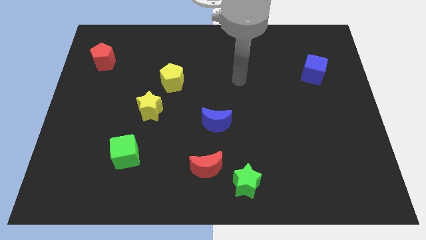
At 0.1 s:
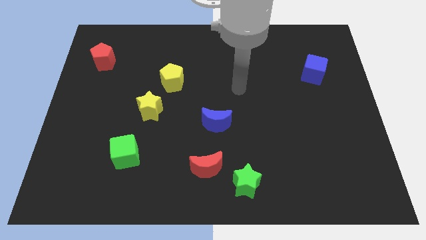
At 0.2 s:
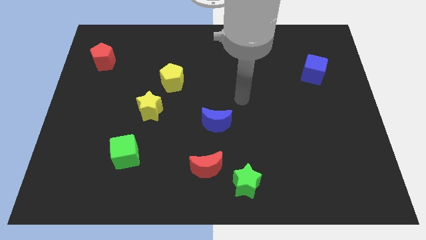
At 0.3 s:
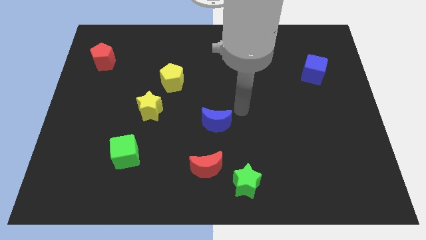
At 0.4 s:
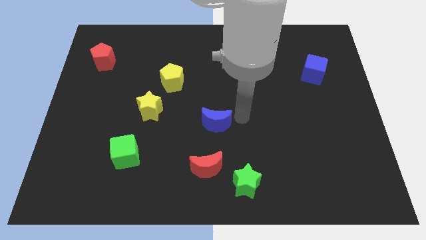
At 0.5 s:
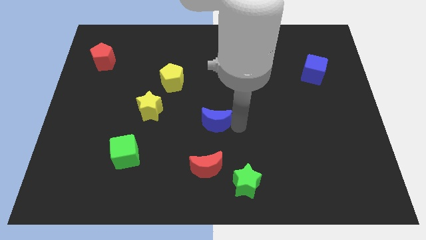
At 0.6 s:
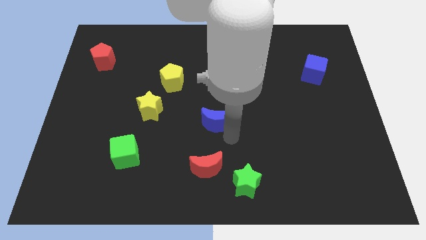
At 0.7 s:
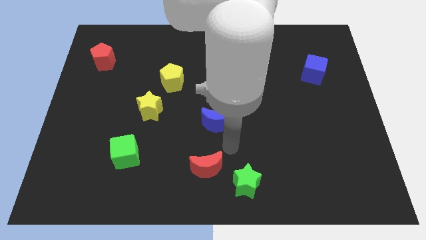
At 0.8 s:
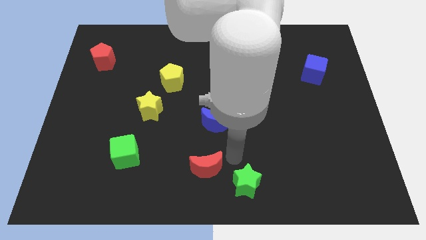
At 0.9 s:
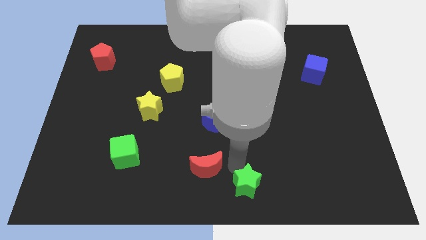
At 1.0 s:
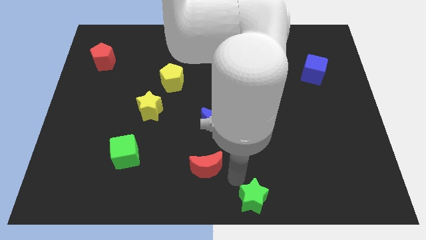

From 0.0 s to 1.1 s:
separate the red moon from the green star

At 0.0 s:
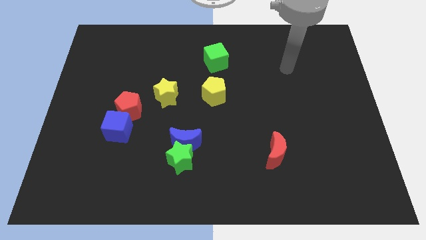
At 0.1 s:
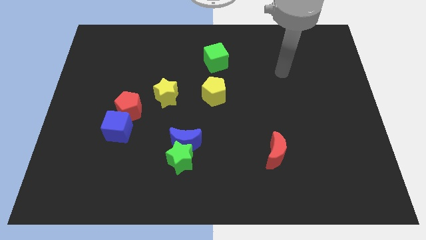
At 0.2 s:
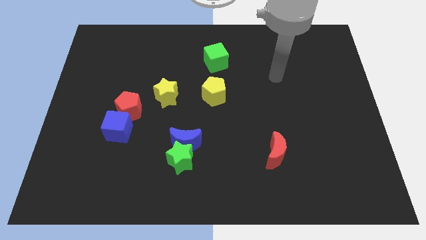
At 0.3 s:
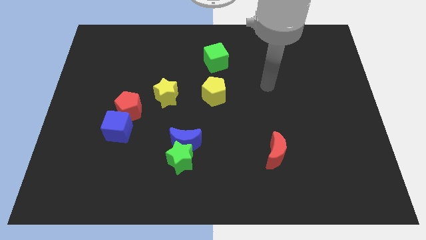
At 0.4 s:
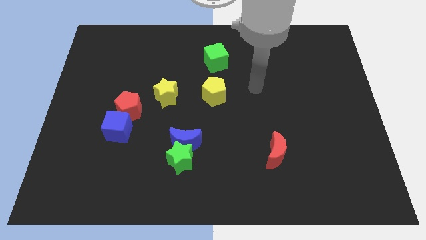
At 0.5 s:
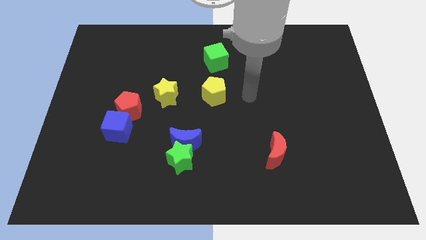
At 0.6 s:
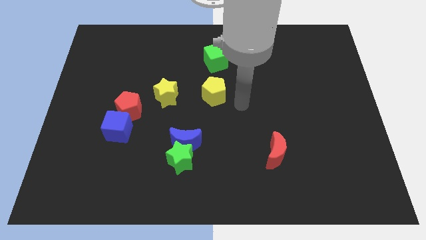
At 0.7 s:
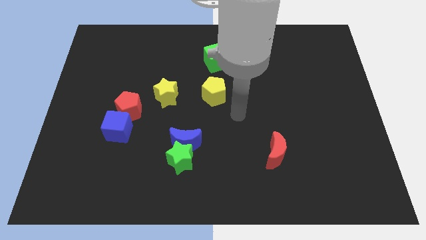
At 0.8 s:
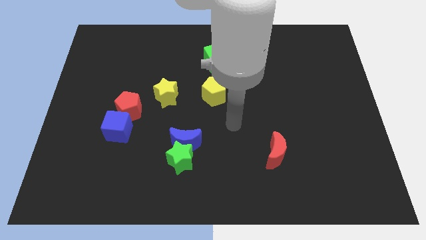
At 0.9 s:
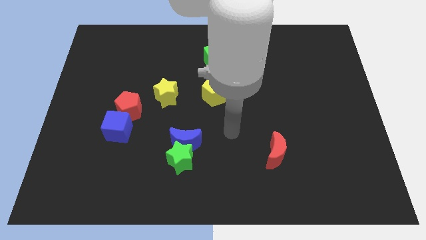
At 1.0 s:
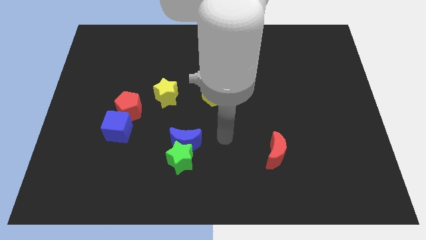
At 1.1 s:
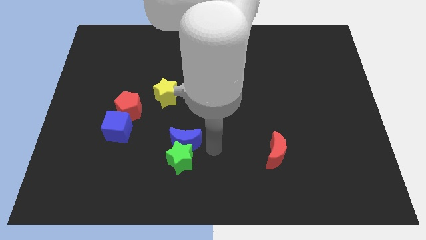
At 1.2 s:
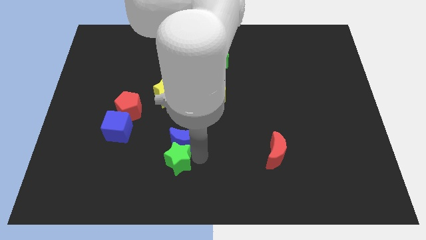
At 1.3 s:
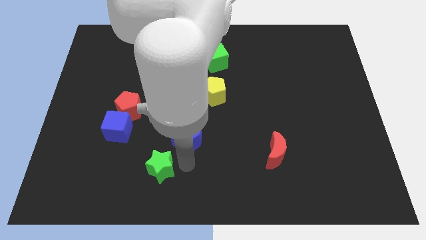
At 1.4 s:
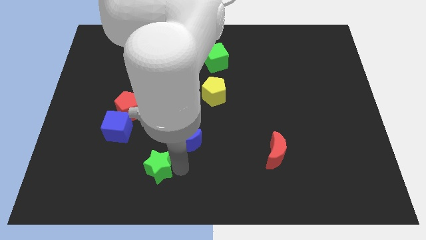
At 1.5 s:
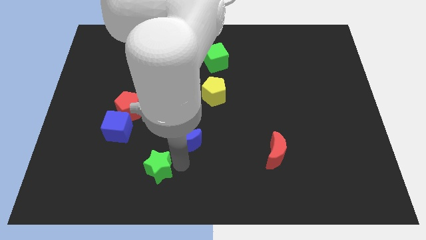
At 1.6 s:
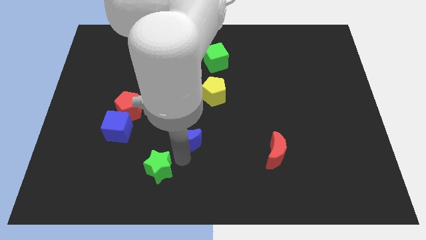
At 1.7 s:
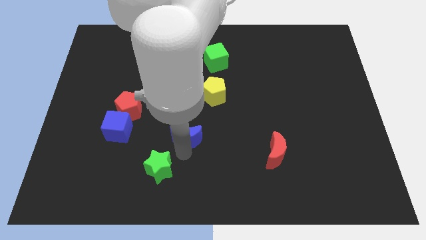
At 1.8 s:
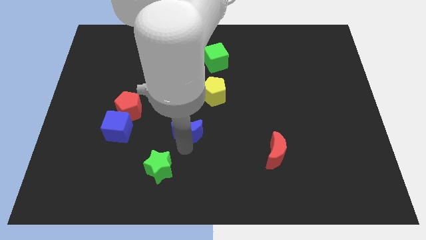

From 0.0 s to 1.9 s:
pull the blue moon apart from the green star

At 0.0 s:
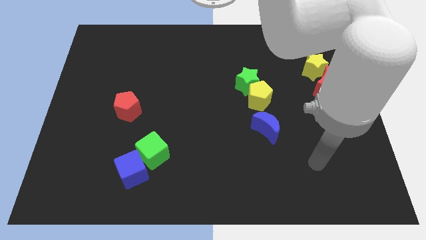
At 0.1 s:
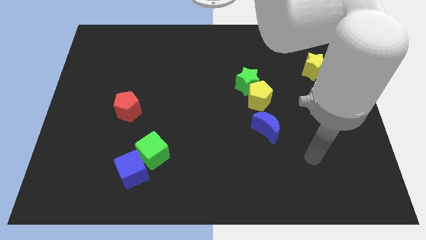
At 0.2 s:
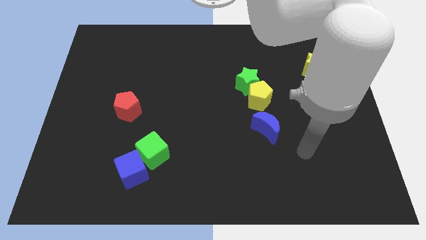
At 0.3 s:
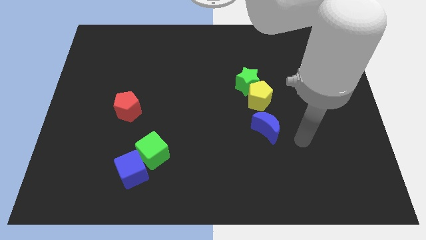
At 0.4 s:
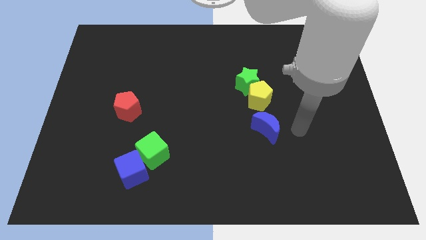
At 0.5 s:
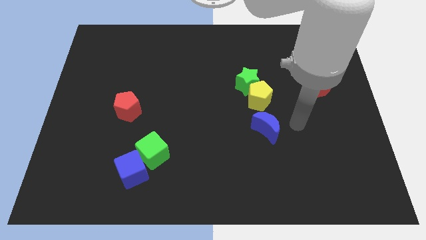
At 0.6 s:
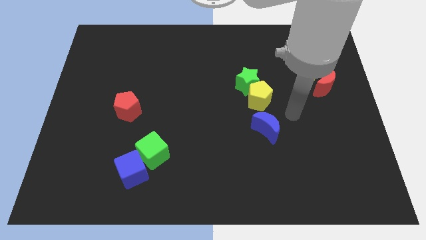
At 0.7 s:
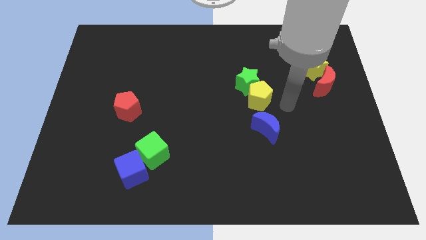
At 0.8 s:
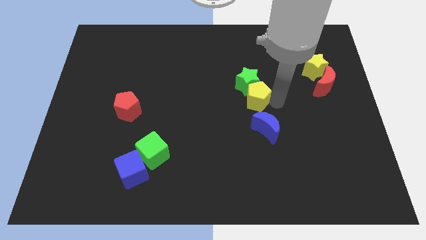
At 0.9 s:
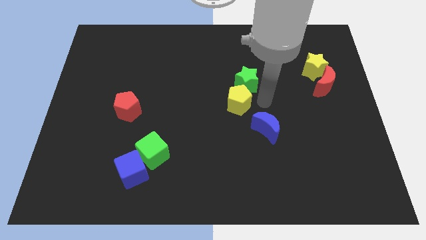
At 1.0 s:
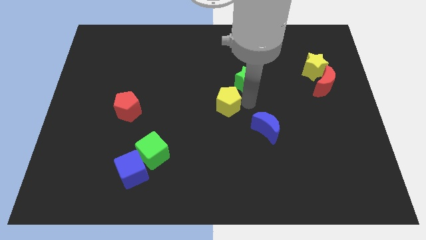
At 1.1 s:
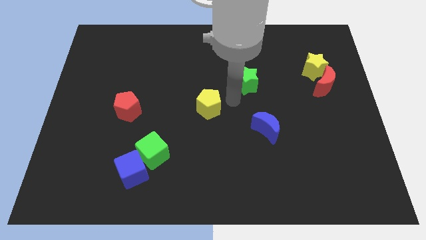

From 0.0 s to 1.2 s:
separate the green star from the yellow pentagon

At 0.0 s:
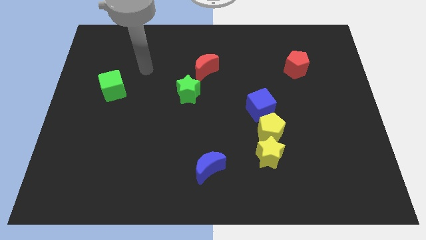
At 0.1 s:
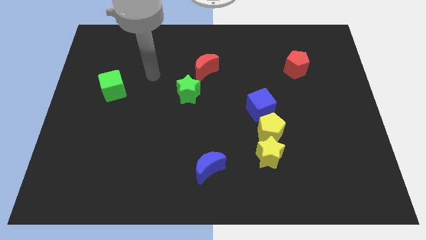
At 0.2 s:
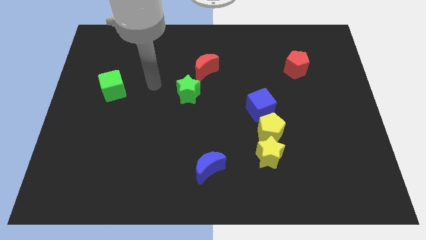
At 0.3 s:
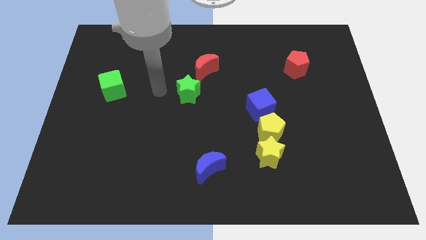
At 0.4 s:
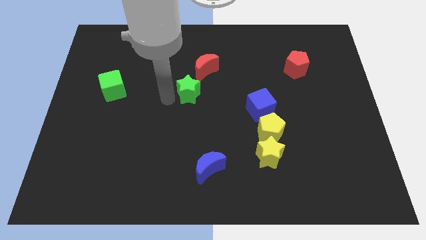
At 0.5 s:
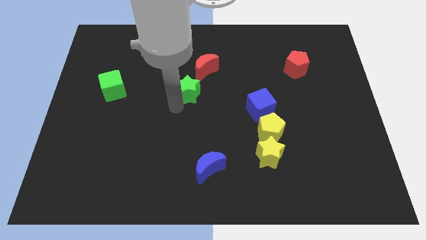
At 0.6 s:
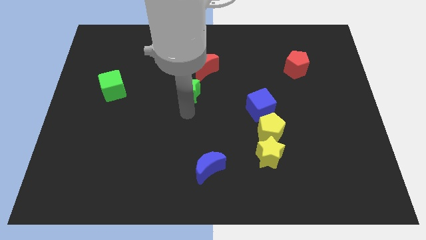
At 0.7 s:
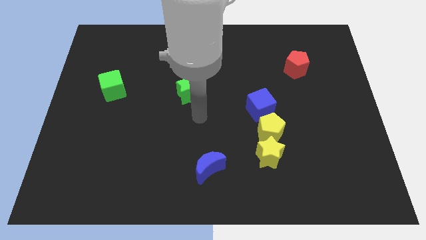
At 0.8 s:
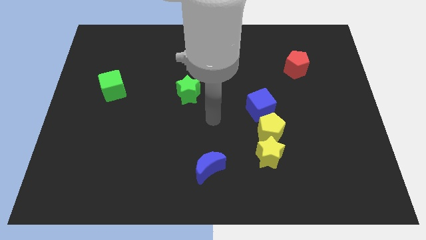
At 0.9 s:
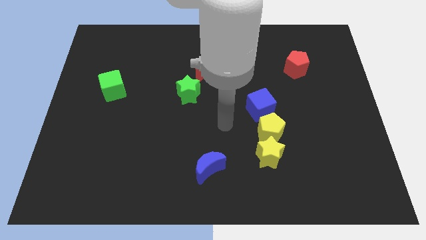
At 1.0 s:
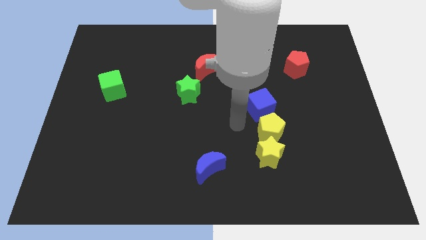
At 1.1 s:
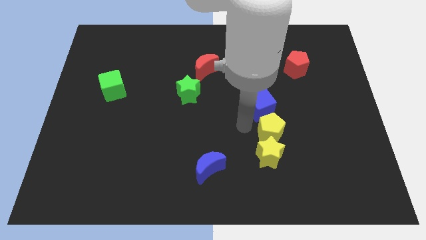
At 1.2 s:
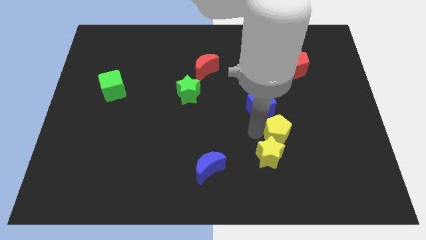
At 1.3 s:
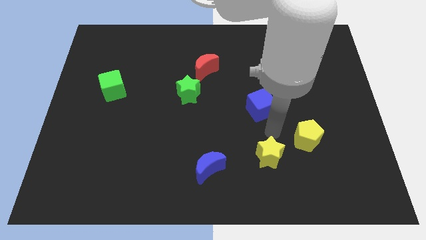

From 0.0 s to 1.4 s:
pull the yellow star apart from the yellow pentagon

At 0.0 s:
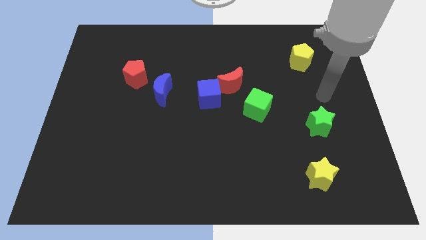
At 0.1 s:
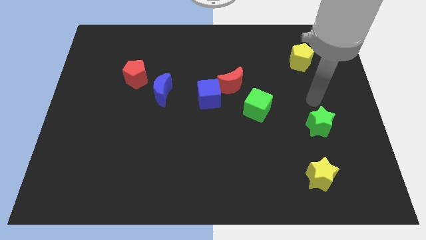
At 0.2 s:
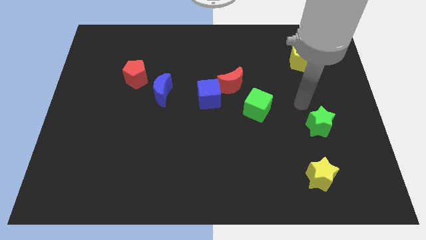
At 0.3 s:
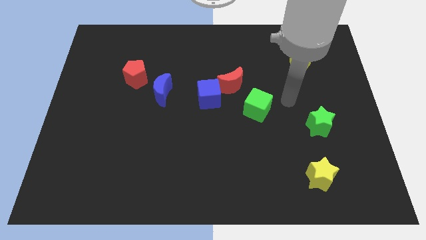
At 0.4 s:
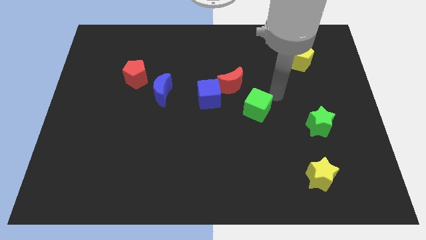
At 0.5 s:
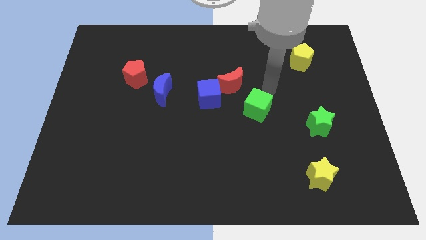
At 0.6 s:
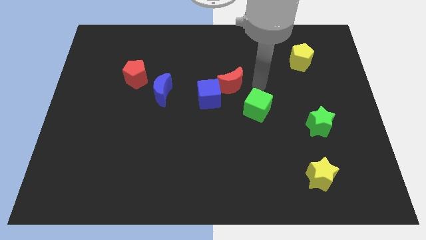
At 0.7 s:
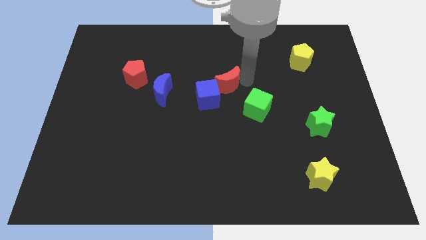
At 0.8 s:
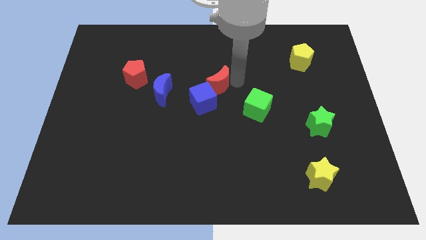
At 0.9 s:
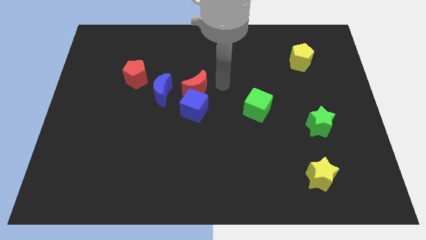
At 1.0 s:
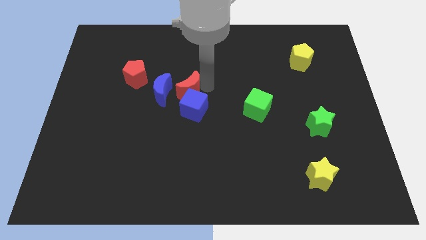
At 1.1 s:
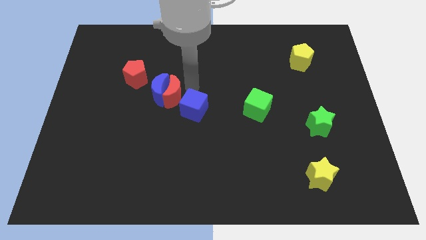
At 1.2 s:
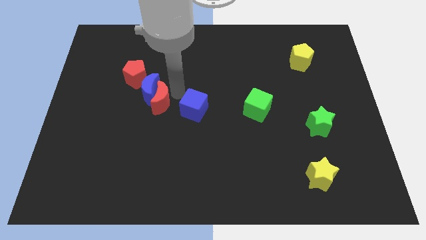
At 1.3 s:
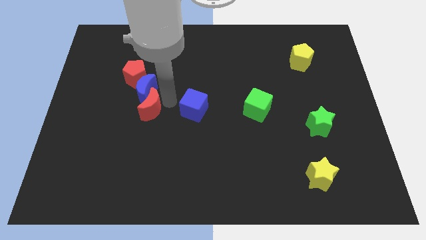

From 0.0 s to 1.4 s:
separate the blue cube from the red moon

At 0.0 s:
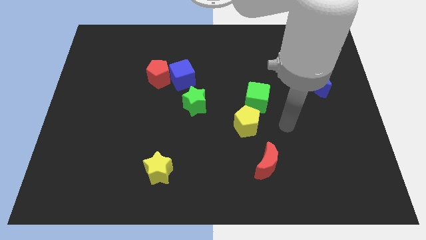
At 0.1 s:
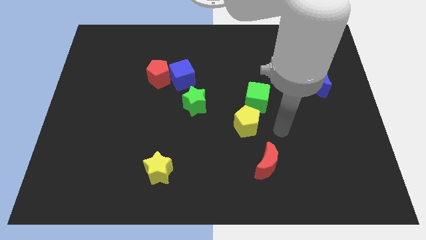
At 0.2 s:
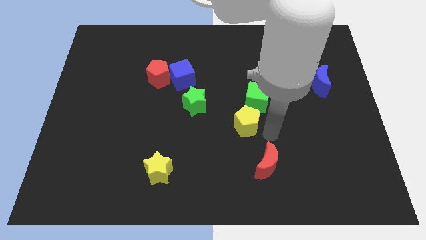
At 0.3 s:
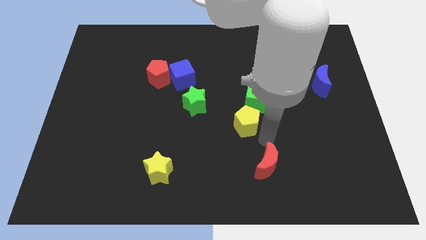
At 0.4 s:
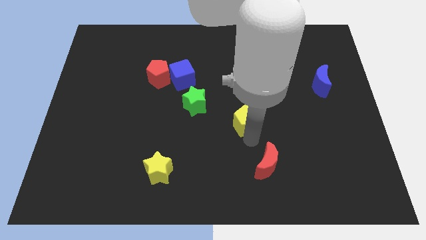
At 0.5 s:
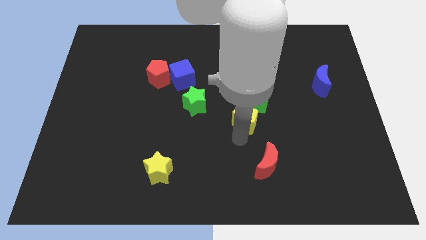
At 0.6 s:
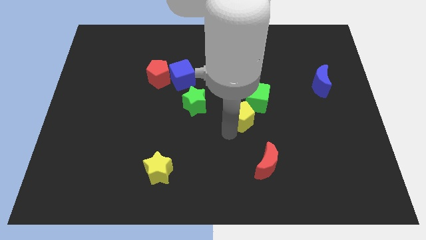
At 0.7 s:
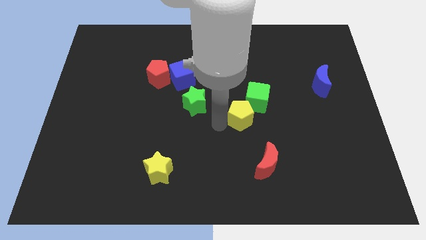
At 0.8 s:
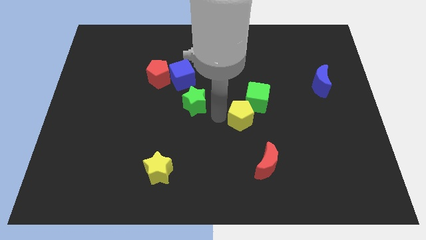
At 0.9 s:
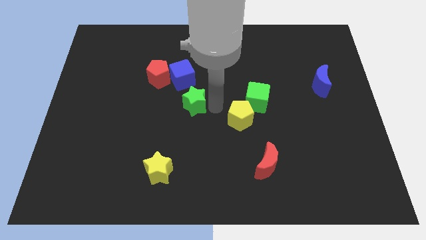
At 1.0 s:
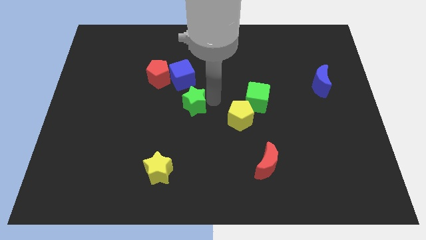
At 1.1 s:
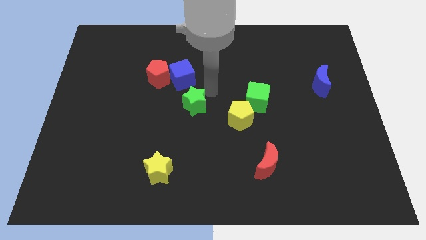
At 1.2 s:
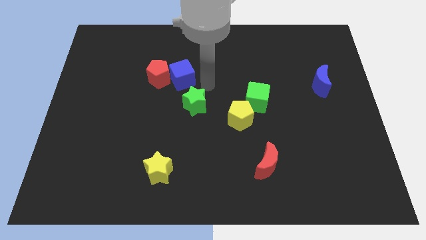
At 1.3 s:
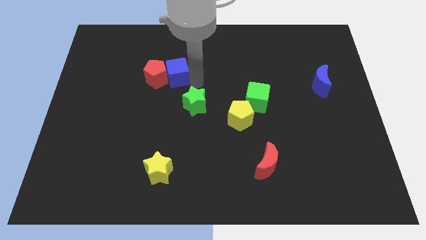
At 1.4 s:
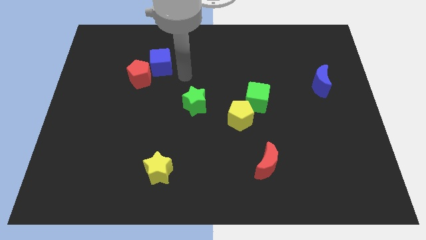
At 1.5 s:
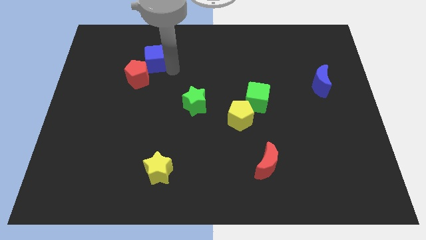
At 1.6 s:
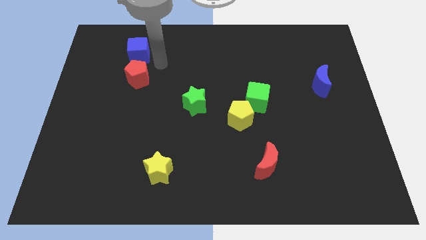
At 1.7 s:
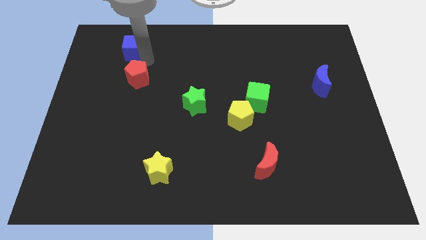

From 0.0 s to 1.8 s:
move the red pentagon away from the blue cube

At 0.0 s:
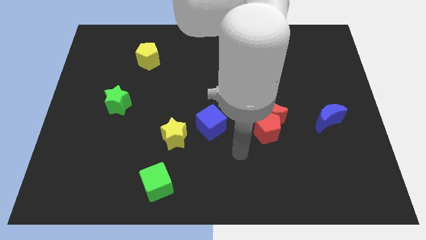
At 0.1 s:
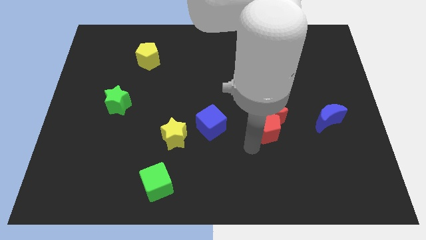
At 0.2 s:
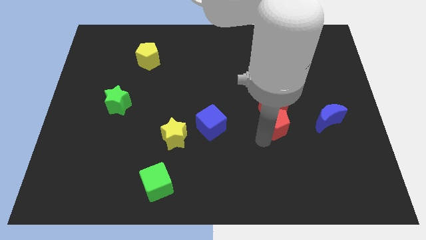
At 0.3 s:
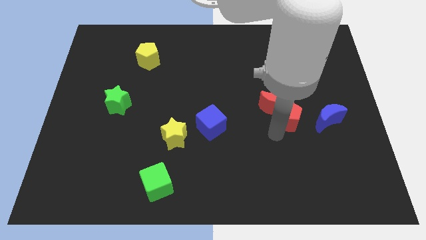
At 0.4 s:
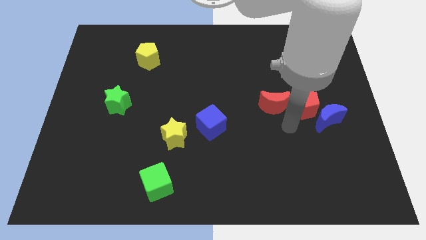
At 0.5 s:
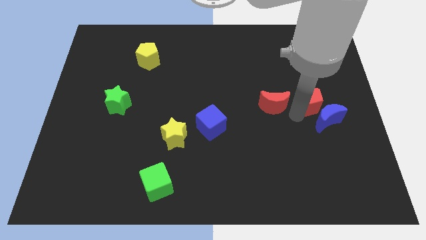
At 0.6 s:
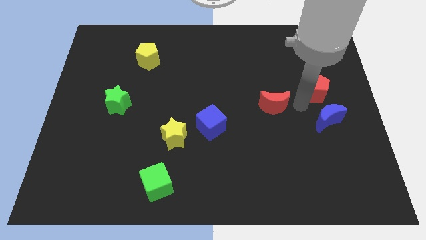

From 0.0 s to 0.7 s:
move the red moon away from the red pentagon
